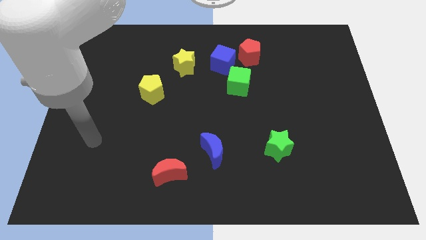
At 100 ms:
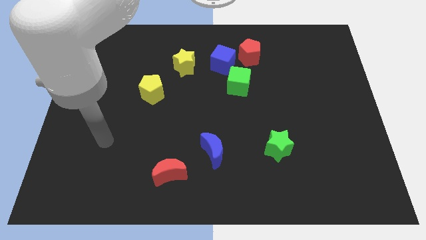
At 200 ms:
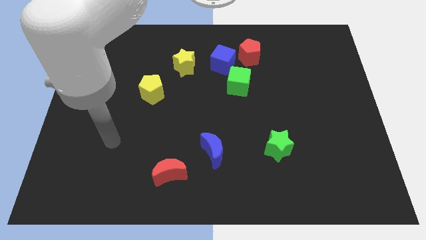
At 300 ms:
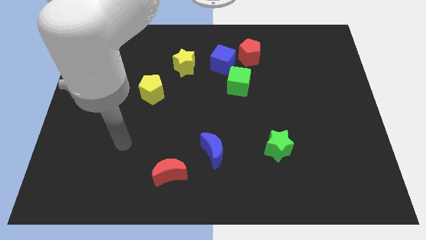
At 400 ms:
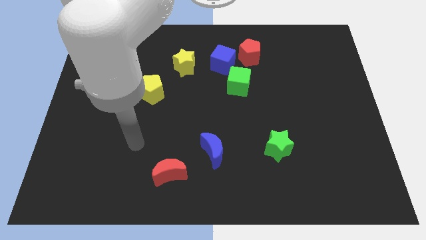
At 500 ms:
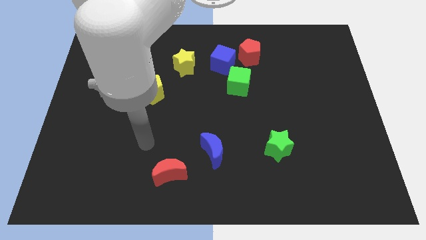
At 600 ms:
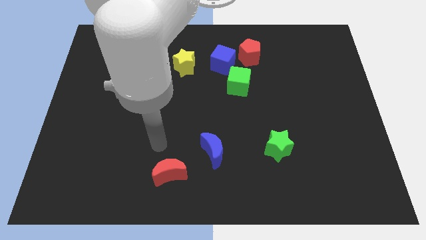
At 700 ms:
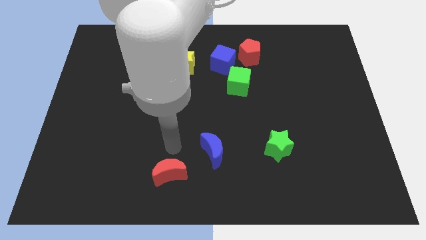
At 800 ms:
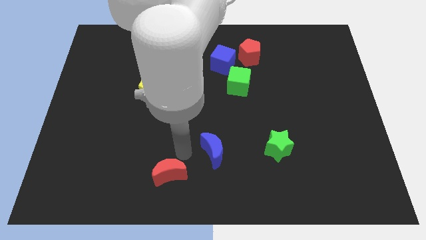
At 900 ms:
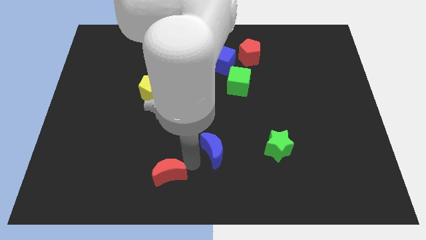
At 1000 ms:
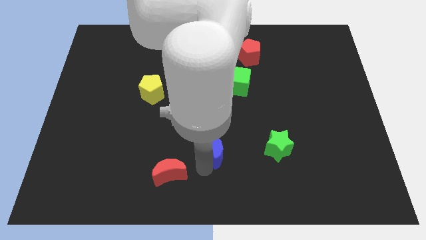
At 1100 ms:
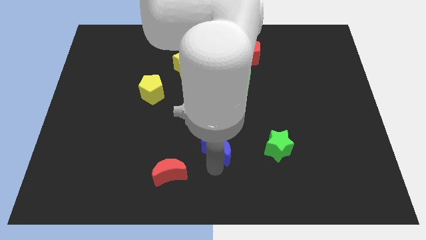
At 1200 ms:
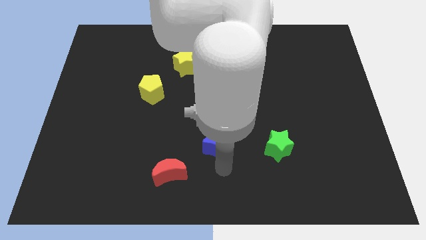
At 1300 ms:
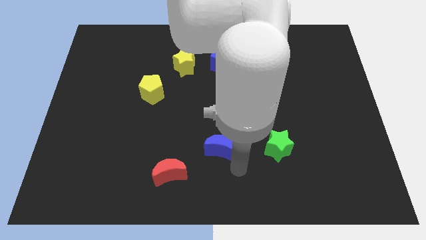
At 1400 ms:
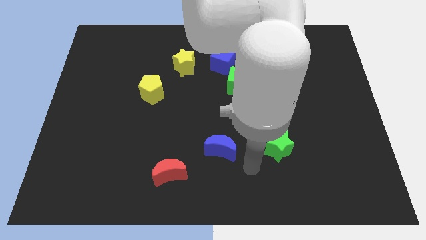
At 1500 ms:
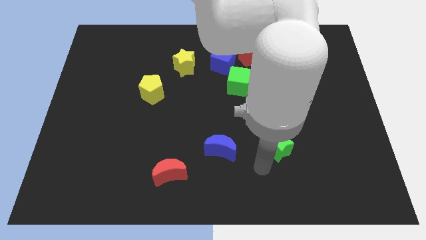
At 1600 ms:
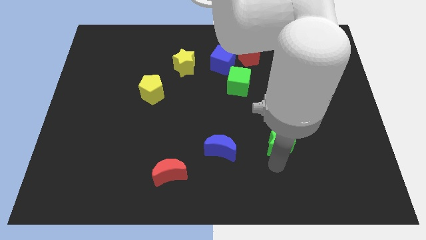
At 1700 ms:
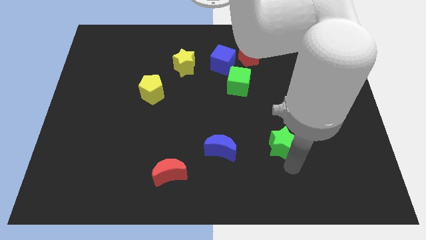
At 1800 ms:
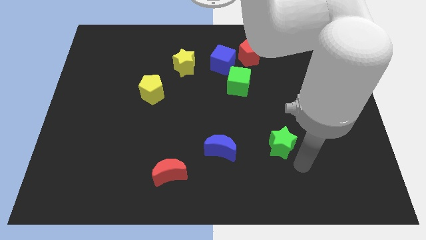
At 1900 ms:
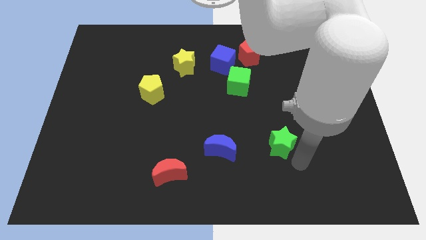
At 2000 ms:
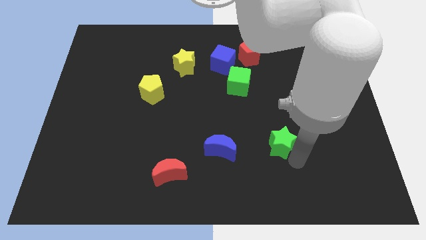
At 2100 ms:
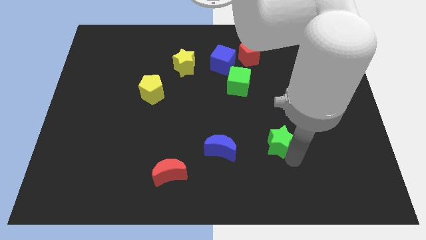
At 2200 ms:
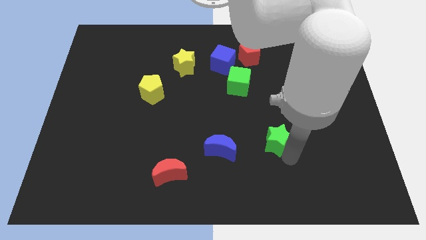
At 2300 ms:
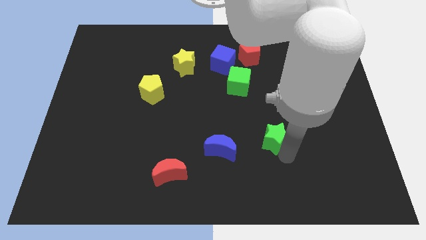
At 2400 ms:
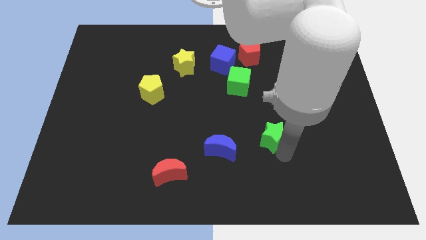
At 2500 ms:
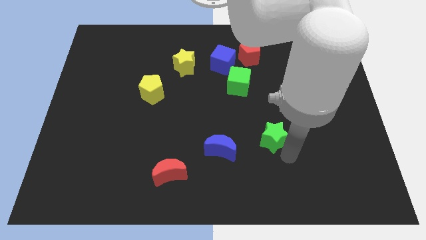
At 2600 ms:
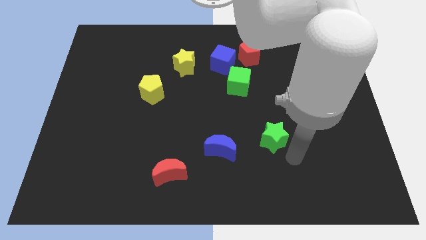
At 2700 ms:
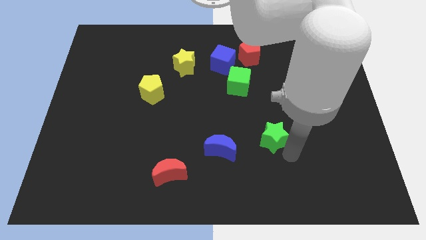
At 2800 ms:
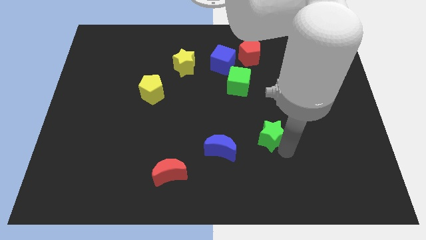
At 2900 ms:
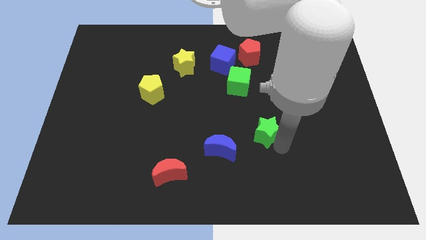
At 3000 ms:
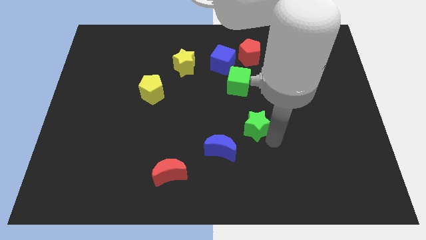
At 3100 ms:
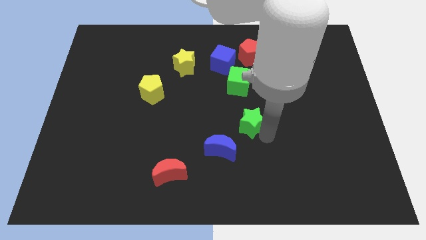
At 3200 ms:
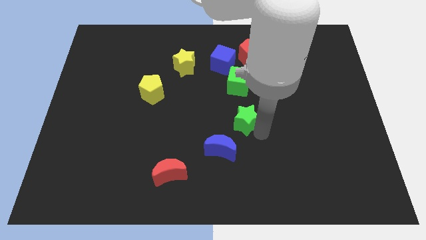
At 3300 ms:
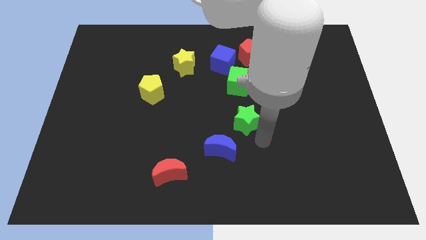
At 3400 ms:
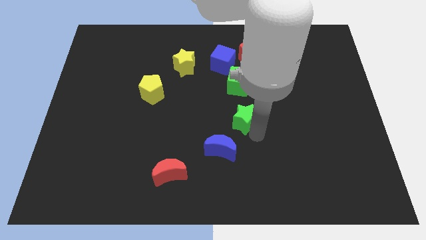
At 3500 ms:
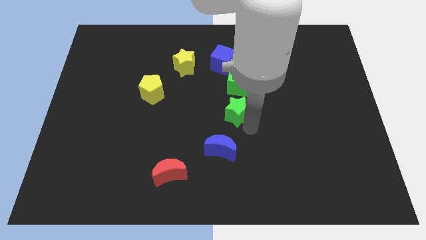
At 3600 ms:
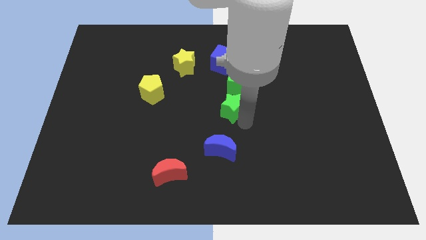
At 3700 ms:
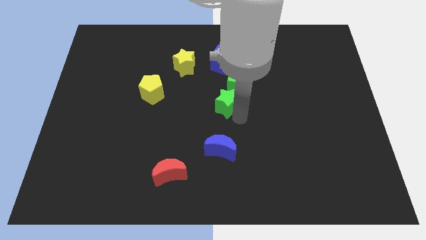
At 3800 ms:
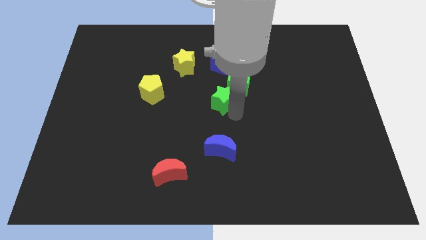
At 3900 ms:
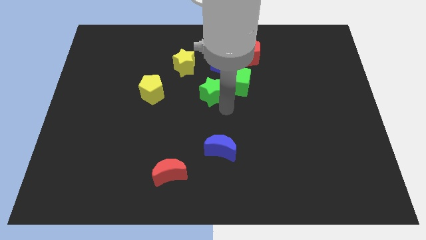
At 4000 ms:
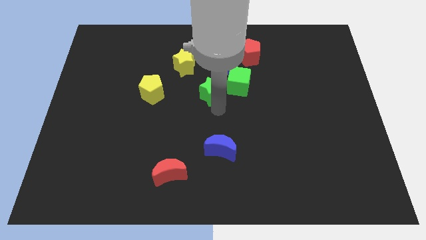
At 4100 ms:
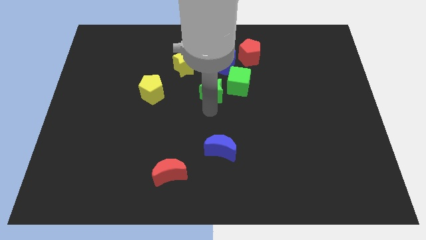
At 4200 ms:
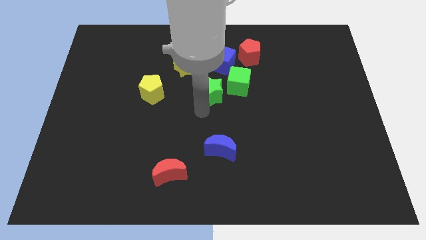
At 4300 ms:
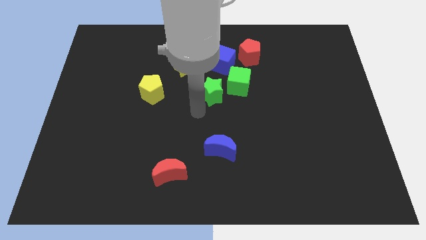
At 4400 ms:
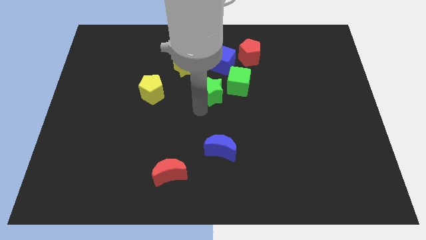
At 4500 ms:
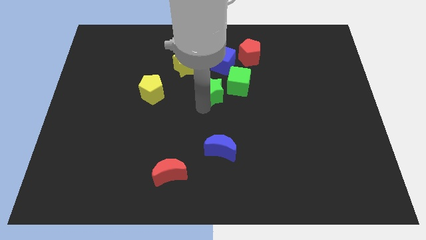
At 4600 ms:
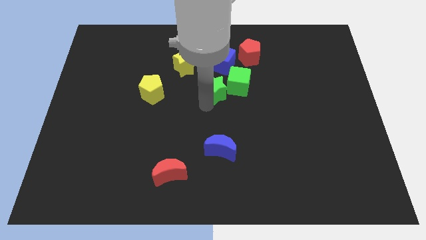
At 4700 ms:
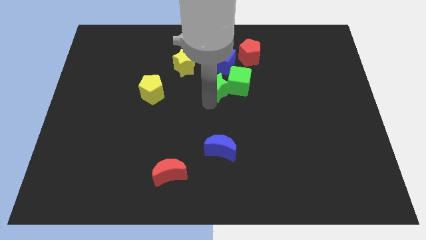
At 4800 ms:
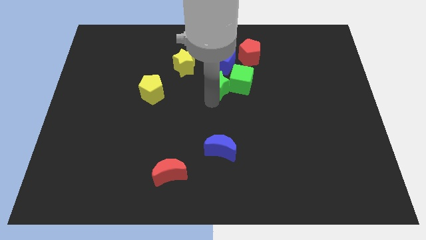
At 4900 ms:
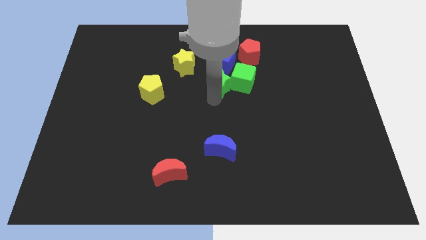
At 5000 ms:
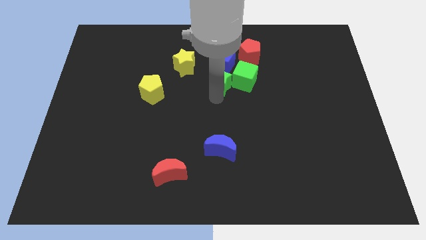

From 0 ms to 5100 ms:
put the green star to the bottom left side of the red pentagon

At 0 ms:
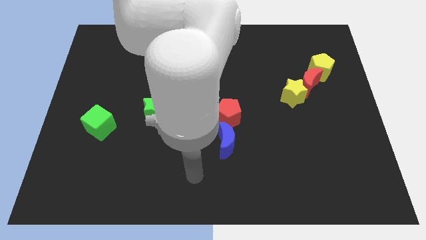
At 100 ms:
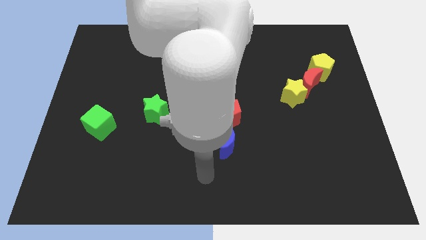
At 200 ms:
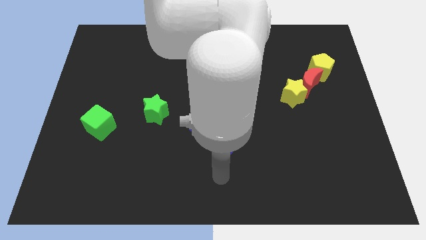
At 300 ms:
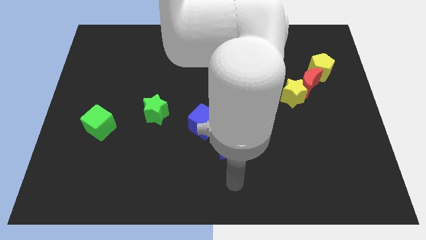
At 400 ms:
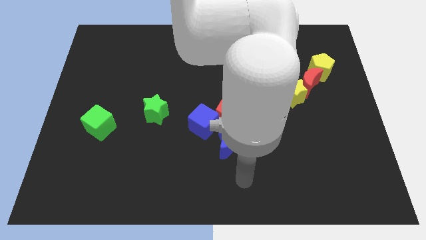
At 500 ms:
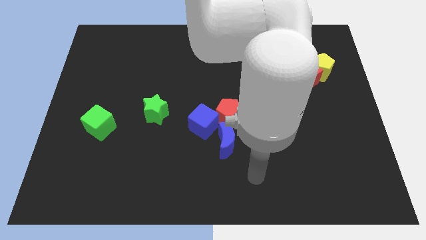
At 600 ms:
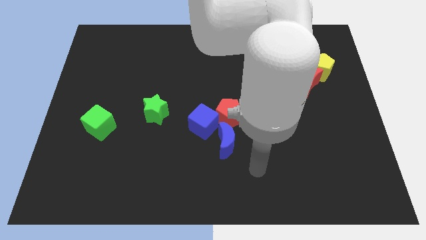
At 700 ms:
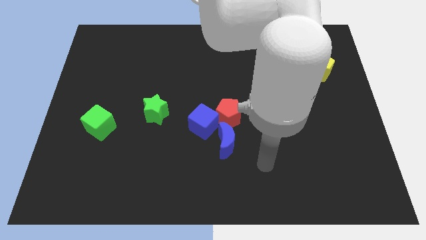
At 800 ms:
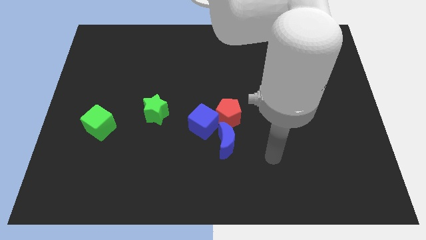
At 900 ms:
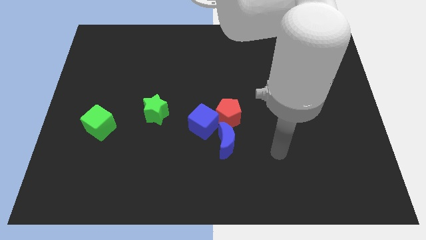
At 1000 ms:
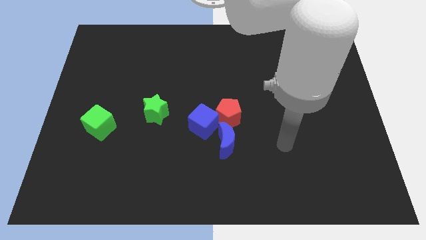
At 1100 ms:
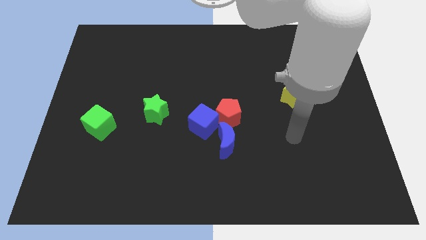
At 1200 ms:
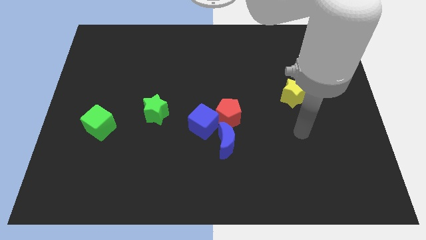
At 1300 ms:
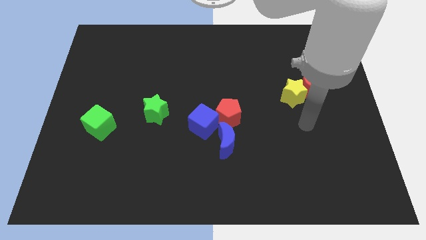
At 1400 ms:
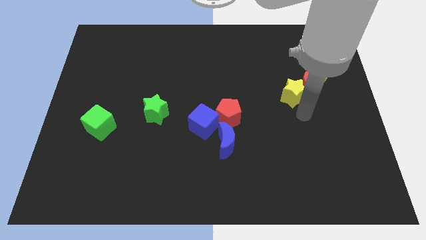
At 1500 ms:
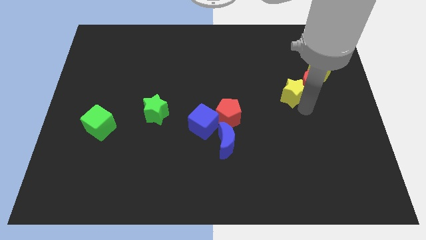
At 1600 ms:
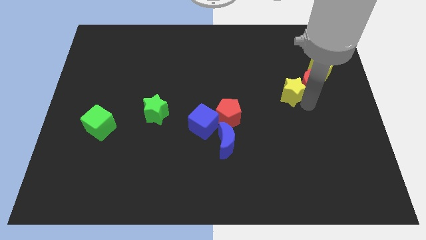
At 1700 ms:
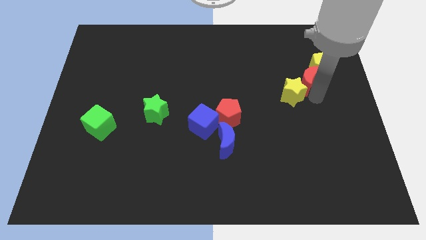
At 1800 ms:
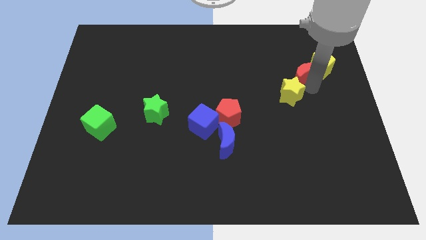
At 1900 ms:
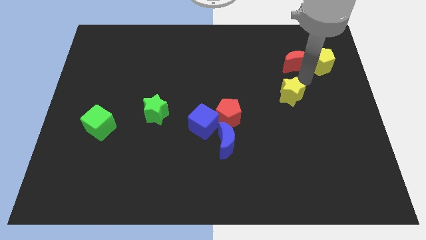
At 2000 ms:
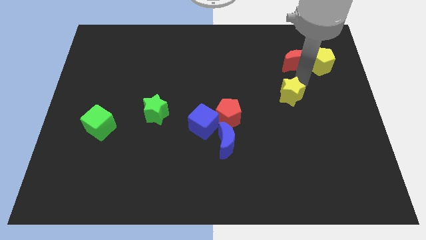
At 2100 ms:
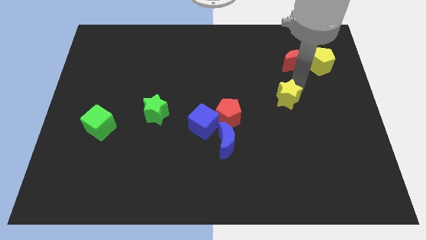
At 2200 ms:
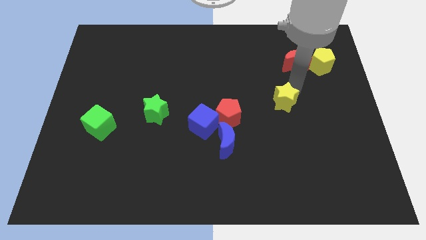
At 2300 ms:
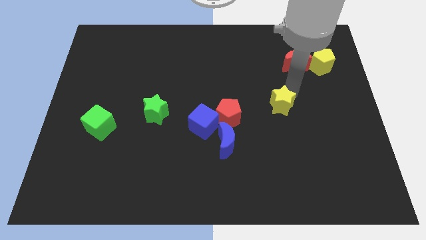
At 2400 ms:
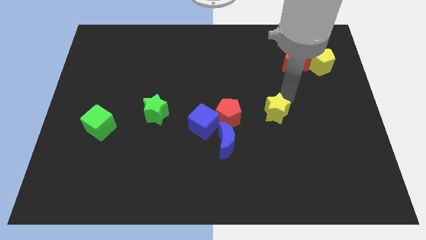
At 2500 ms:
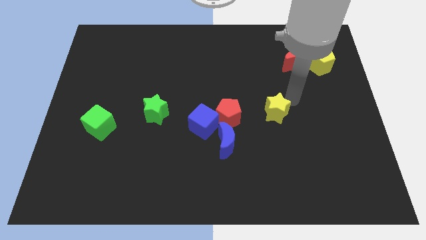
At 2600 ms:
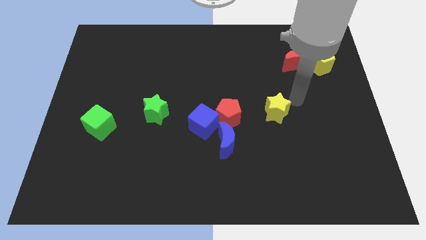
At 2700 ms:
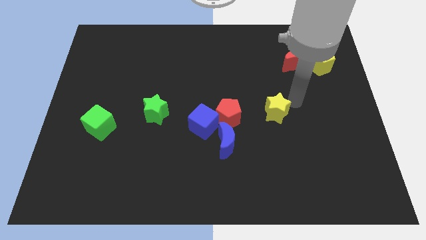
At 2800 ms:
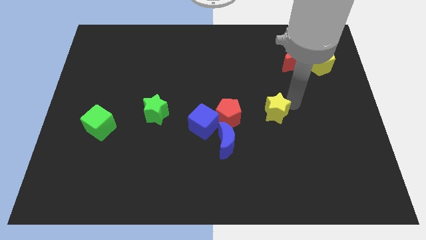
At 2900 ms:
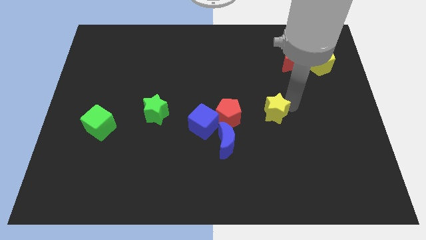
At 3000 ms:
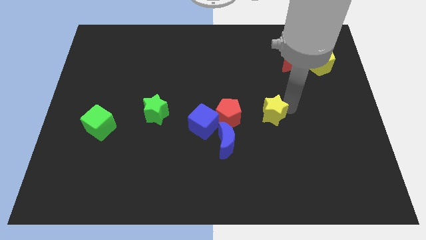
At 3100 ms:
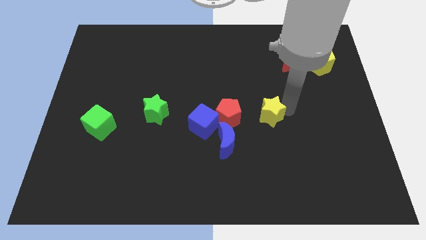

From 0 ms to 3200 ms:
slide the yellow star to the right side of the blue cube
